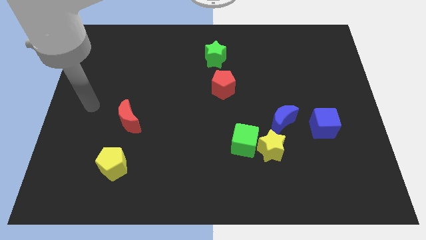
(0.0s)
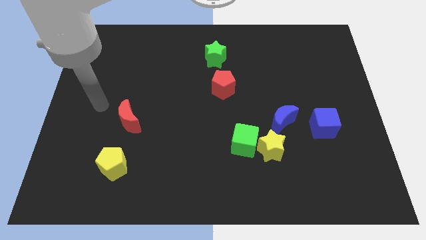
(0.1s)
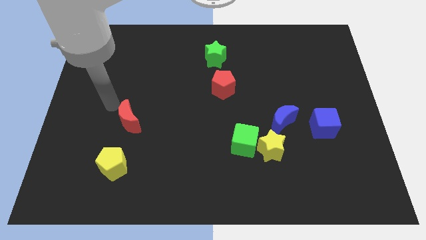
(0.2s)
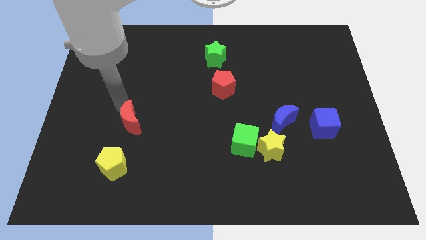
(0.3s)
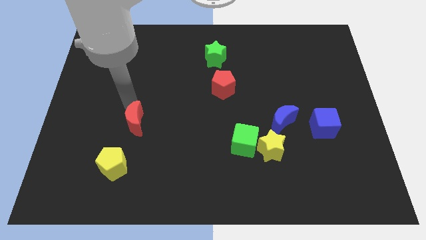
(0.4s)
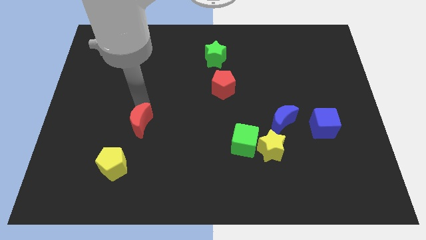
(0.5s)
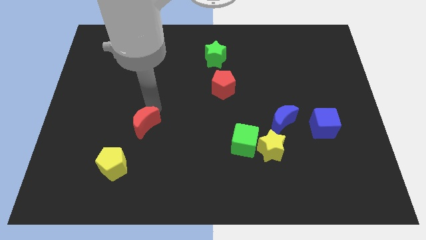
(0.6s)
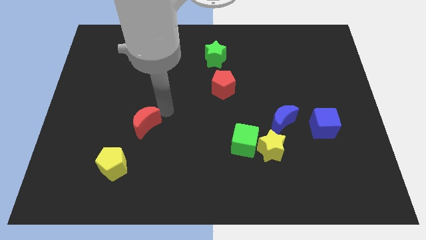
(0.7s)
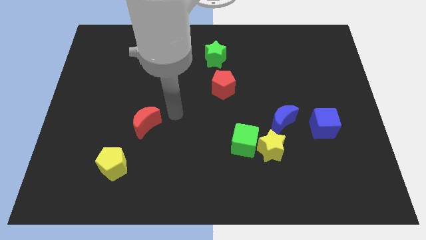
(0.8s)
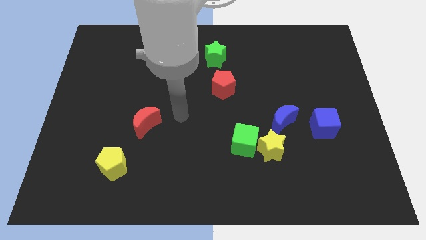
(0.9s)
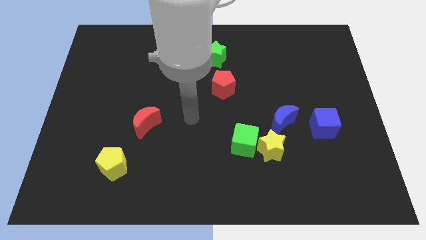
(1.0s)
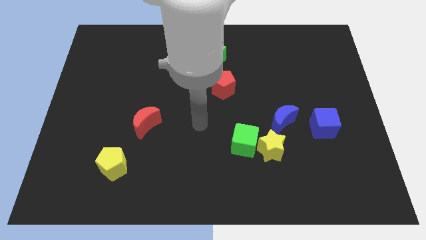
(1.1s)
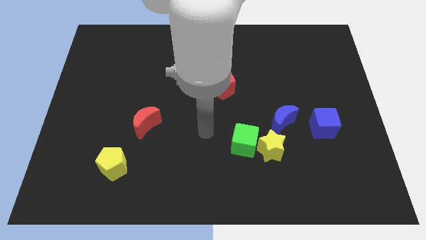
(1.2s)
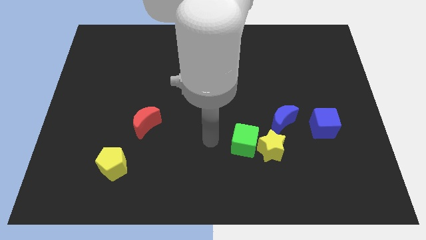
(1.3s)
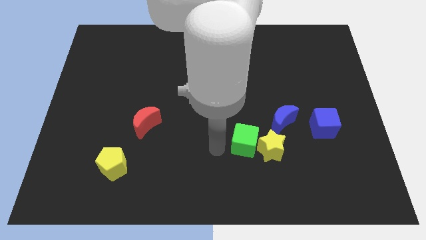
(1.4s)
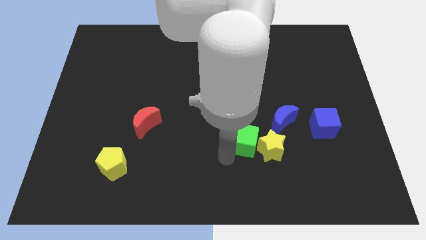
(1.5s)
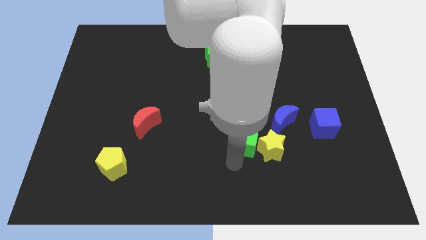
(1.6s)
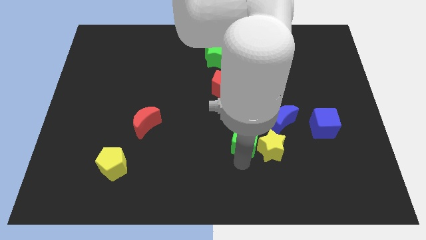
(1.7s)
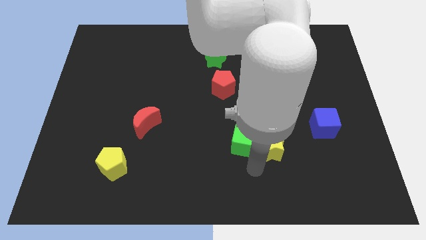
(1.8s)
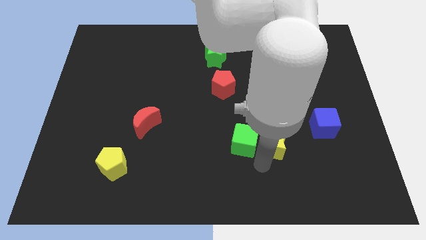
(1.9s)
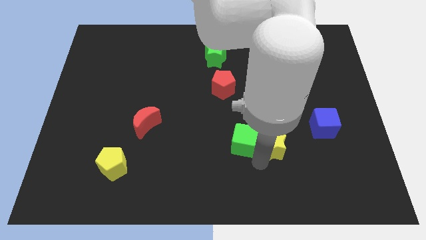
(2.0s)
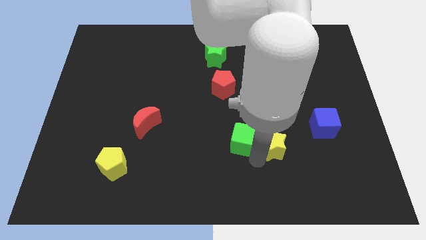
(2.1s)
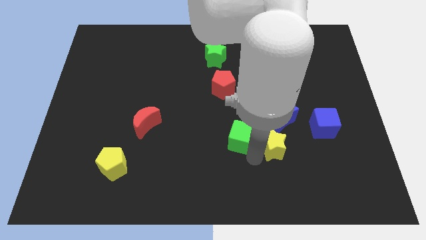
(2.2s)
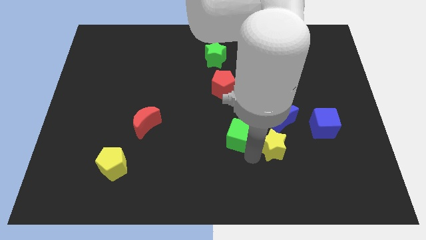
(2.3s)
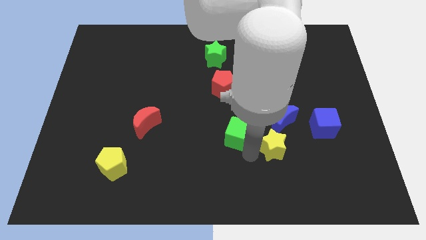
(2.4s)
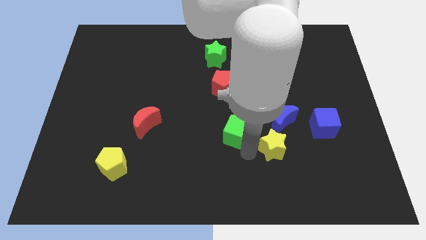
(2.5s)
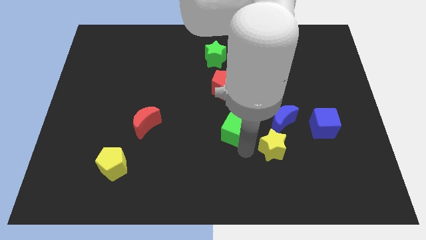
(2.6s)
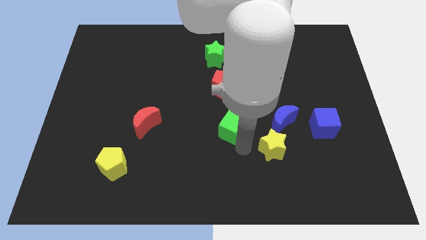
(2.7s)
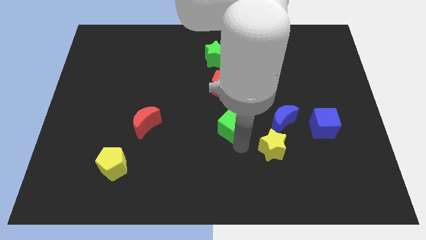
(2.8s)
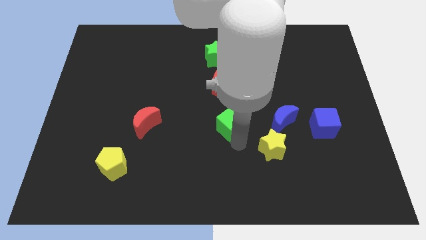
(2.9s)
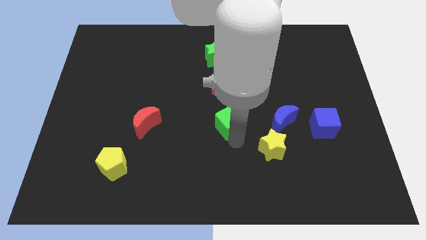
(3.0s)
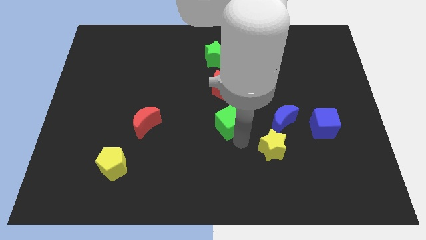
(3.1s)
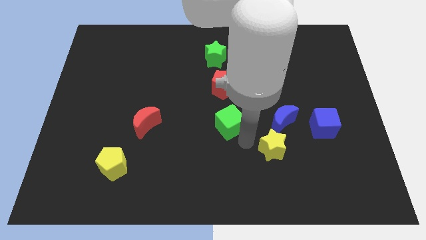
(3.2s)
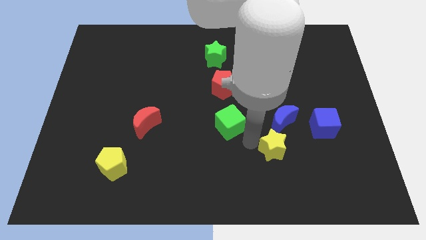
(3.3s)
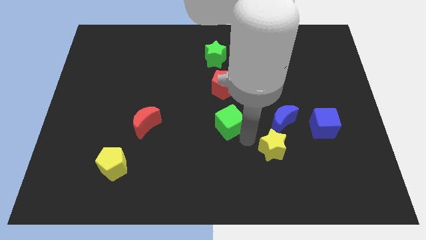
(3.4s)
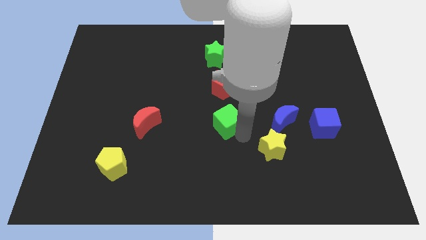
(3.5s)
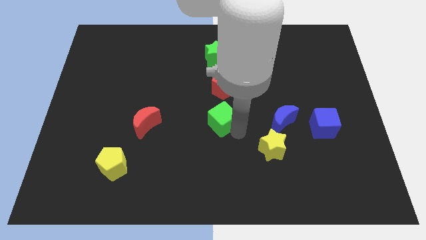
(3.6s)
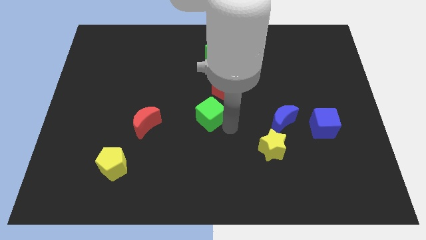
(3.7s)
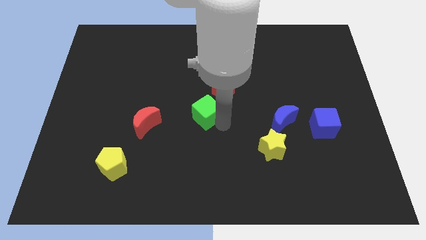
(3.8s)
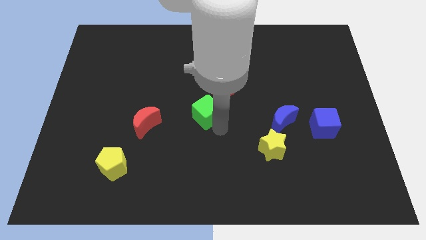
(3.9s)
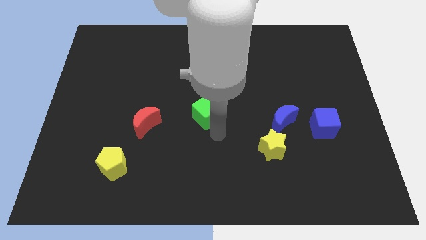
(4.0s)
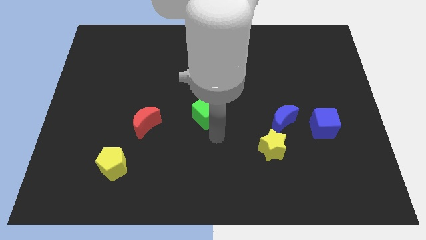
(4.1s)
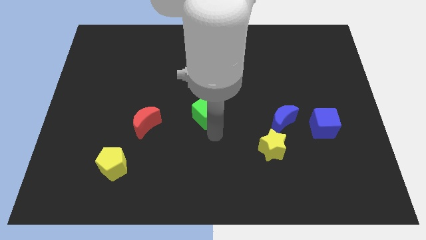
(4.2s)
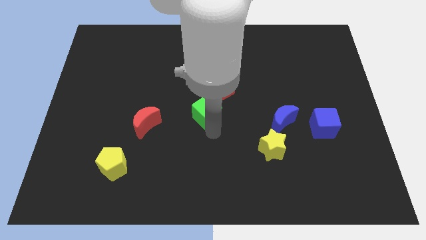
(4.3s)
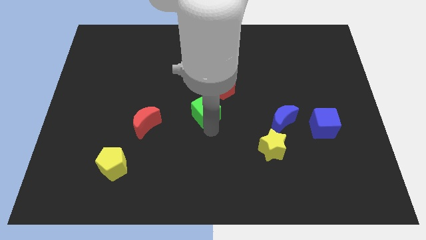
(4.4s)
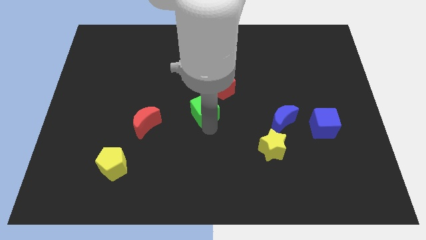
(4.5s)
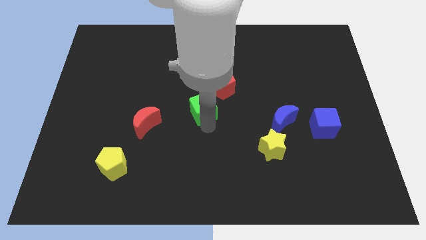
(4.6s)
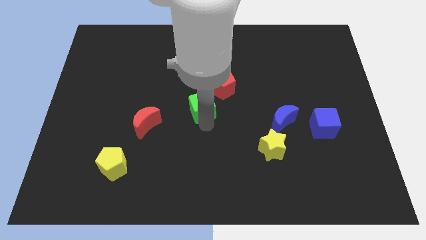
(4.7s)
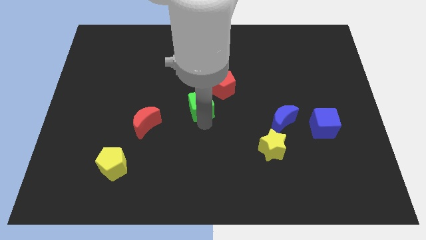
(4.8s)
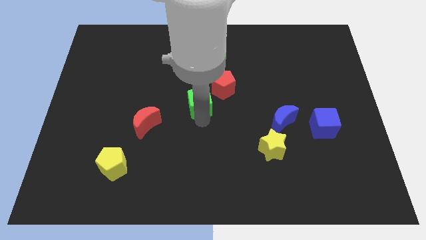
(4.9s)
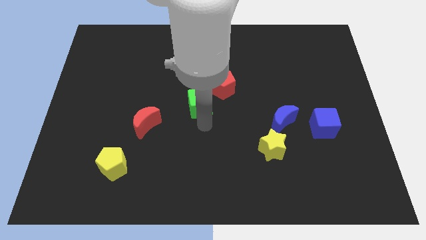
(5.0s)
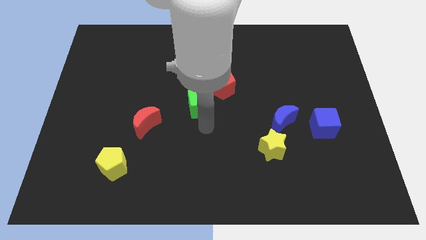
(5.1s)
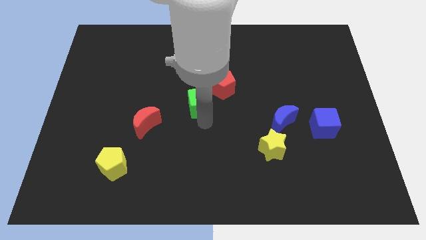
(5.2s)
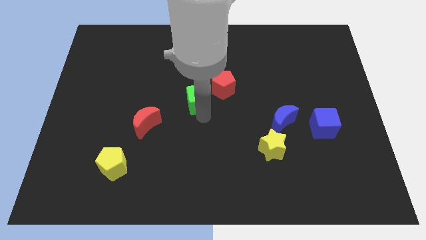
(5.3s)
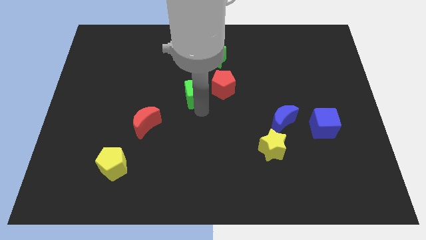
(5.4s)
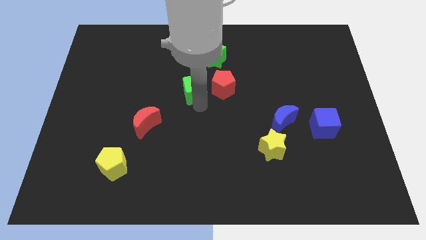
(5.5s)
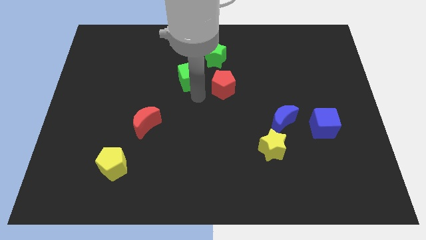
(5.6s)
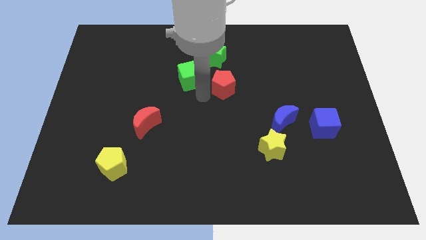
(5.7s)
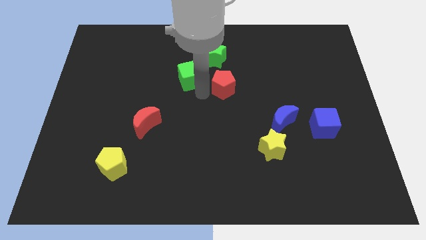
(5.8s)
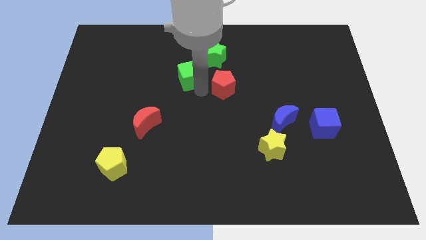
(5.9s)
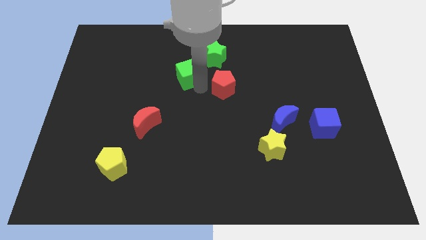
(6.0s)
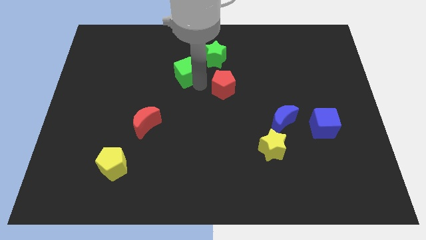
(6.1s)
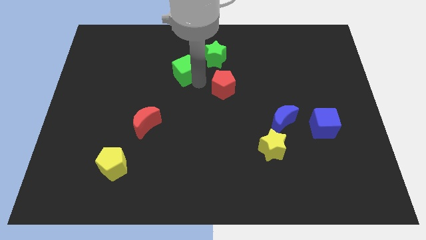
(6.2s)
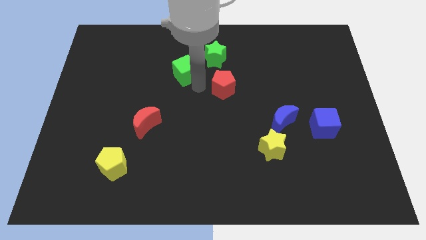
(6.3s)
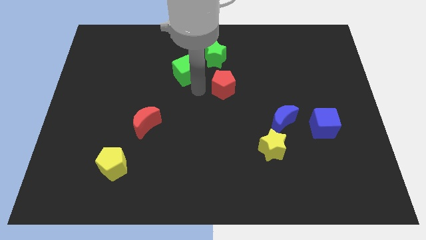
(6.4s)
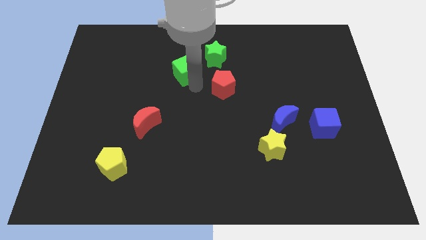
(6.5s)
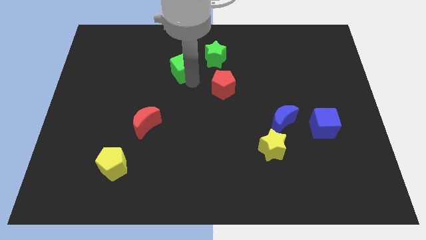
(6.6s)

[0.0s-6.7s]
push the green cube just left of the green star

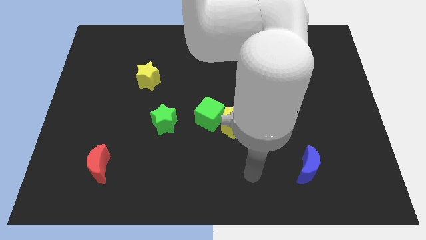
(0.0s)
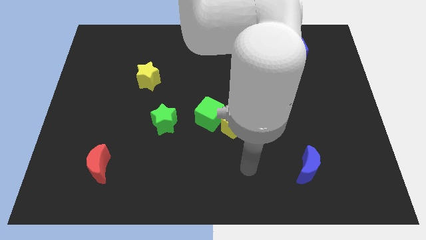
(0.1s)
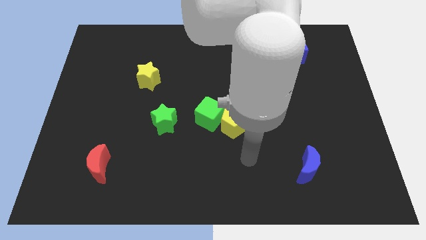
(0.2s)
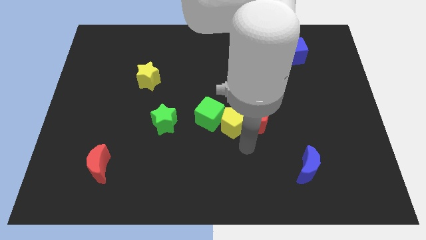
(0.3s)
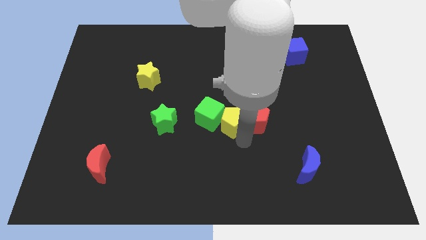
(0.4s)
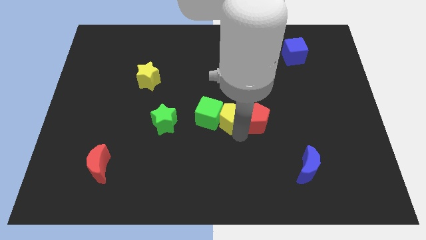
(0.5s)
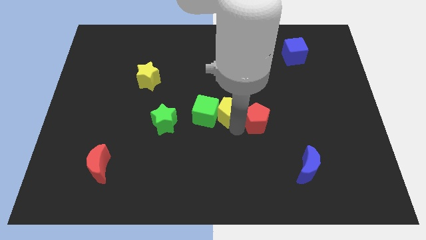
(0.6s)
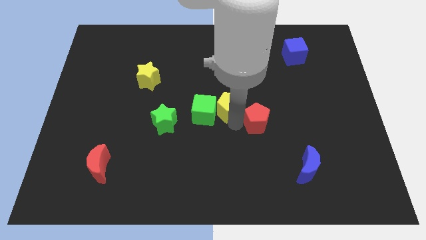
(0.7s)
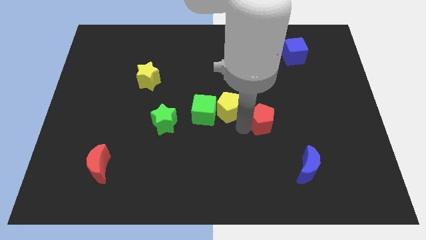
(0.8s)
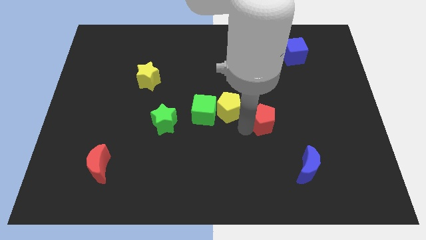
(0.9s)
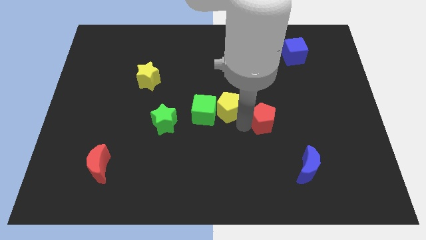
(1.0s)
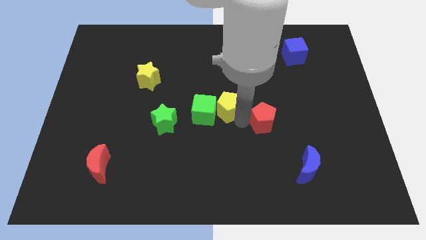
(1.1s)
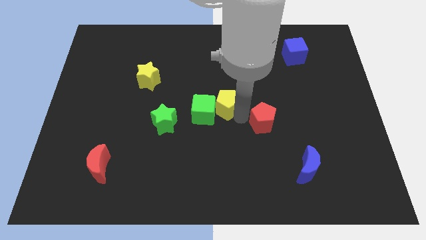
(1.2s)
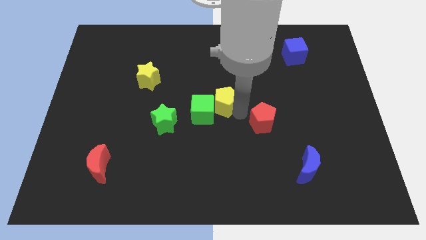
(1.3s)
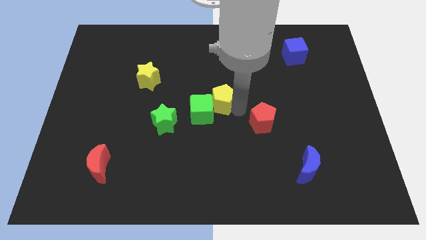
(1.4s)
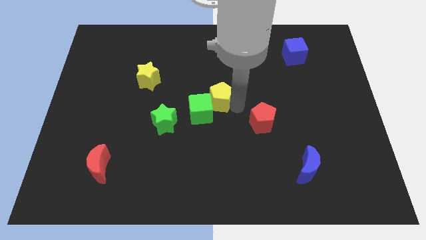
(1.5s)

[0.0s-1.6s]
slide the yellow pentagon to the top side of the green cube
